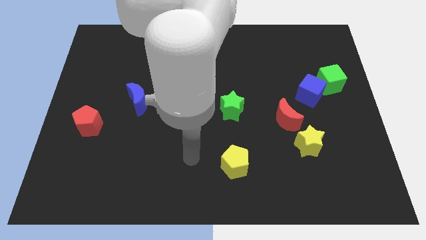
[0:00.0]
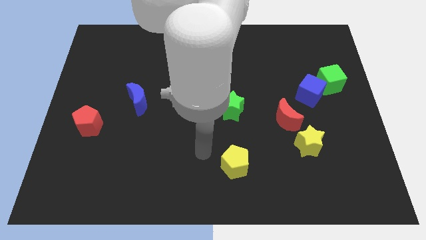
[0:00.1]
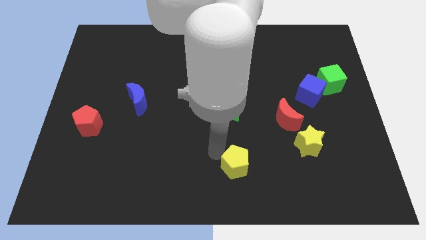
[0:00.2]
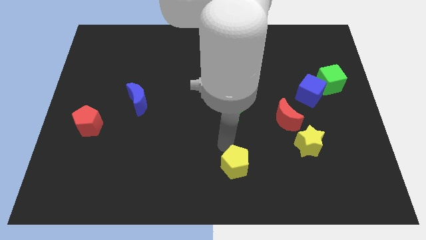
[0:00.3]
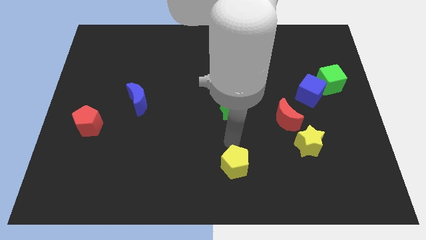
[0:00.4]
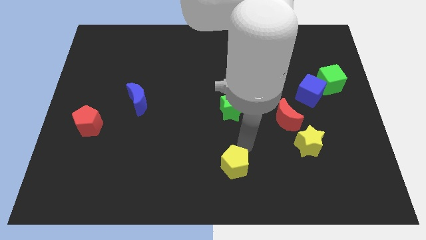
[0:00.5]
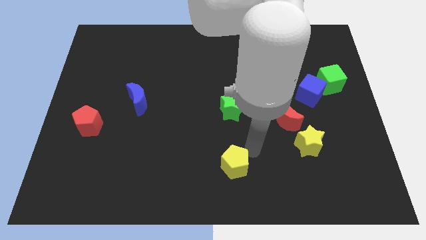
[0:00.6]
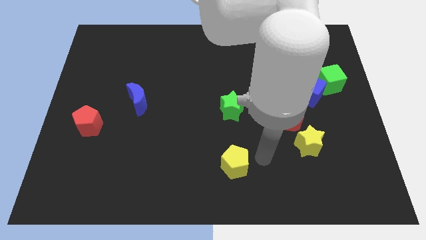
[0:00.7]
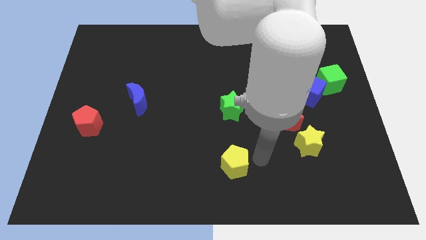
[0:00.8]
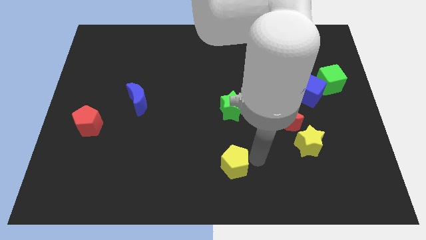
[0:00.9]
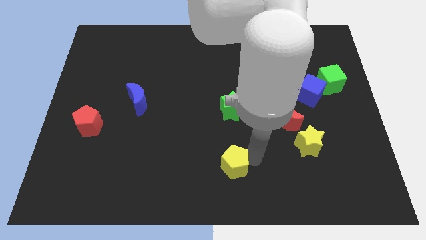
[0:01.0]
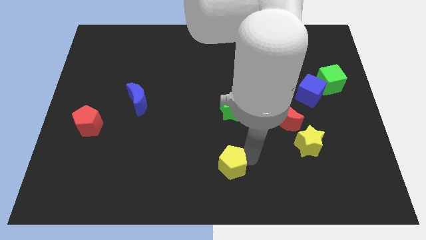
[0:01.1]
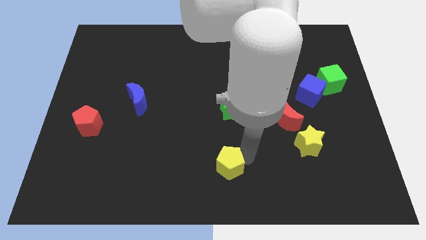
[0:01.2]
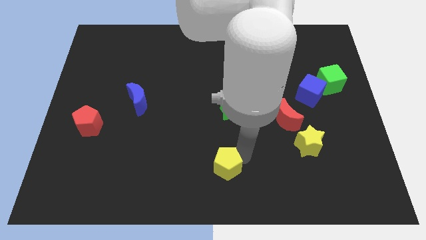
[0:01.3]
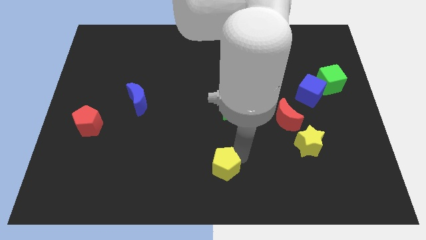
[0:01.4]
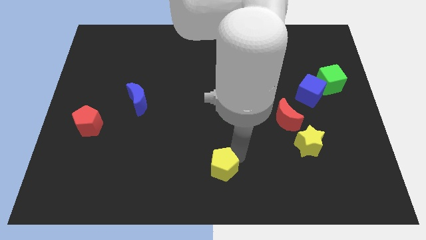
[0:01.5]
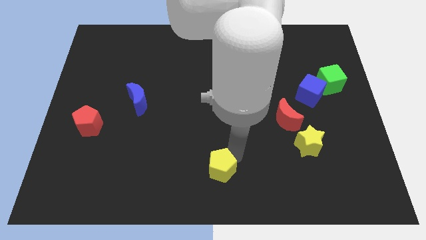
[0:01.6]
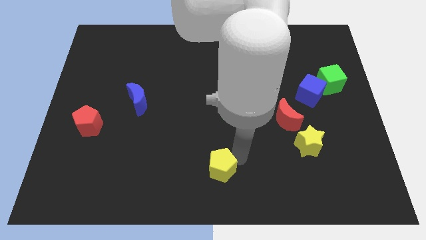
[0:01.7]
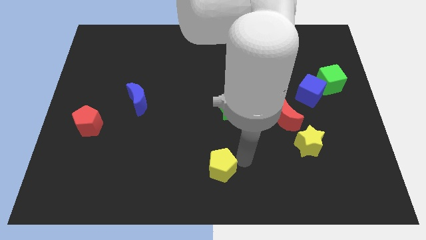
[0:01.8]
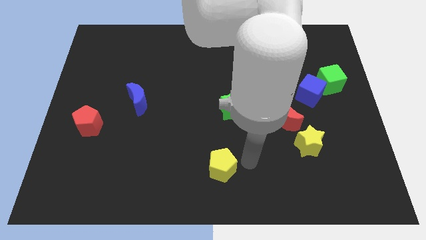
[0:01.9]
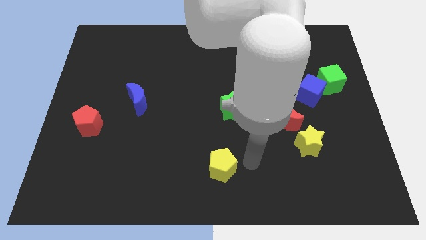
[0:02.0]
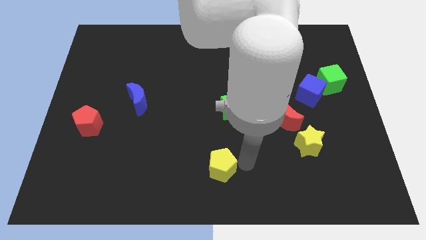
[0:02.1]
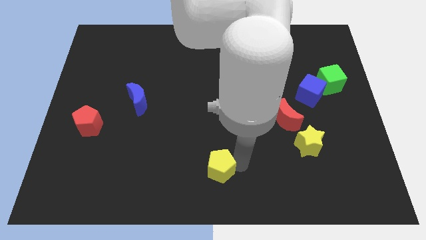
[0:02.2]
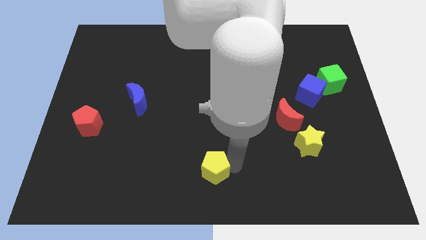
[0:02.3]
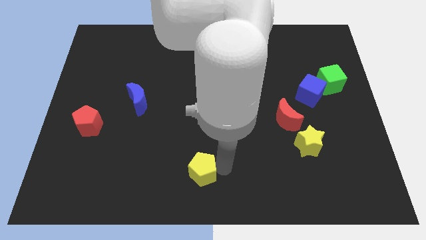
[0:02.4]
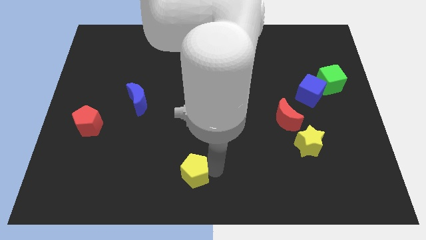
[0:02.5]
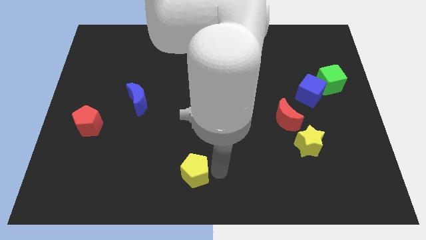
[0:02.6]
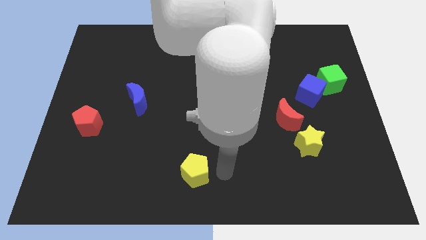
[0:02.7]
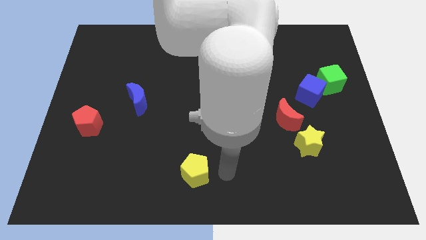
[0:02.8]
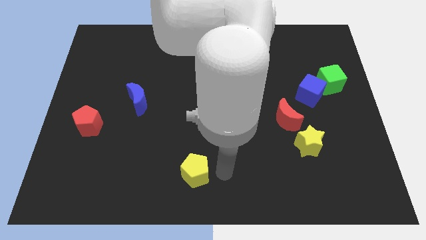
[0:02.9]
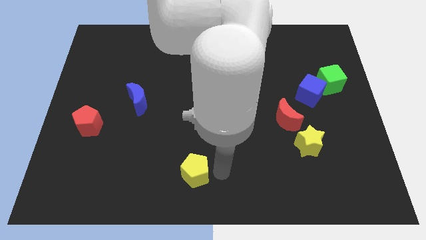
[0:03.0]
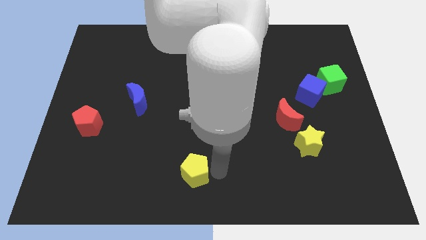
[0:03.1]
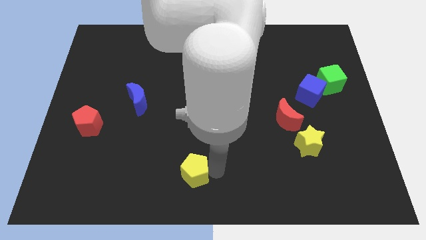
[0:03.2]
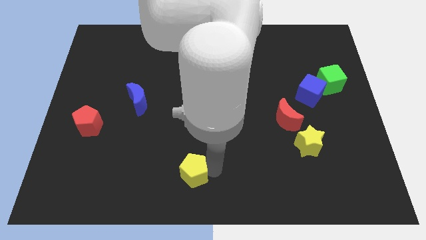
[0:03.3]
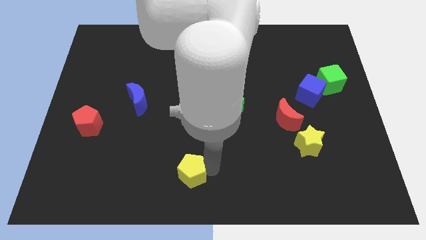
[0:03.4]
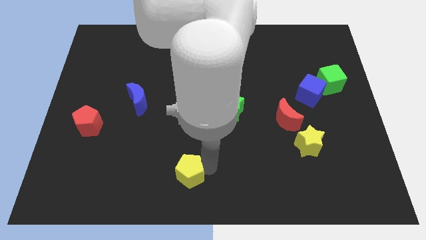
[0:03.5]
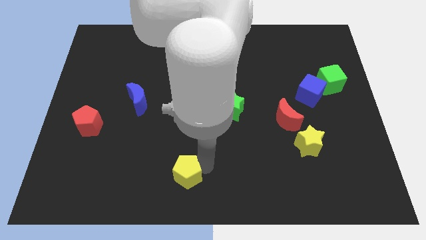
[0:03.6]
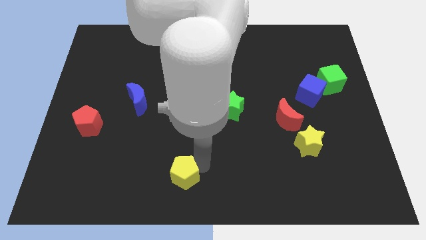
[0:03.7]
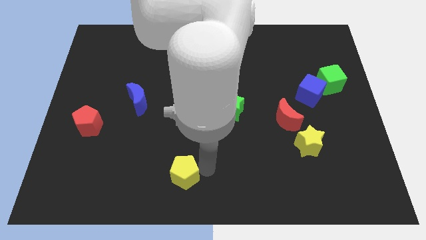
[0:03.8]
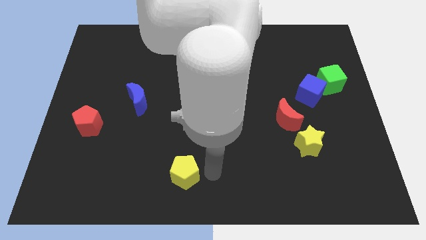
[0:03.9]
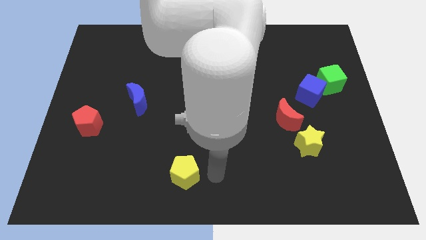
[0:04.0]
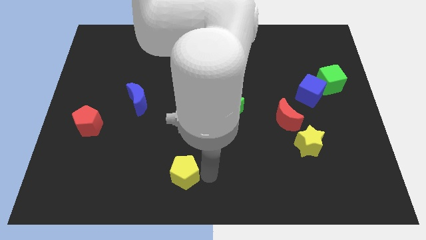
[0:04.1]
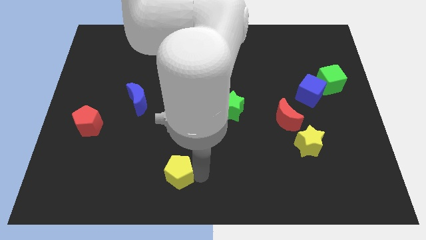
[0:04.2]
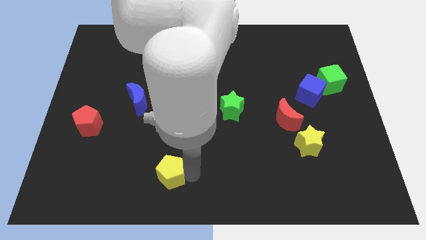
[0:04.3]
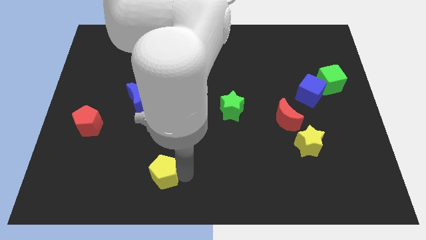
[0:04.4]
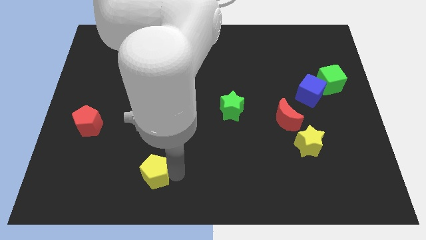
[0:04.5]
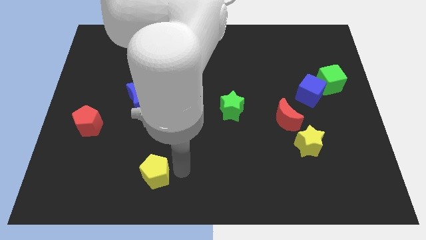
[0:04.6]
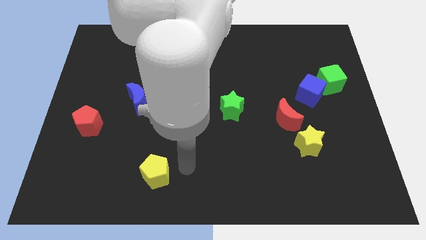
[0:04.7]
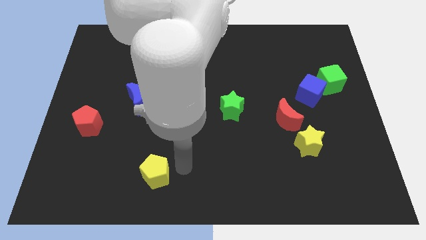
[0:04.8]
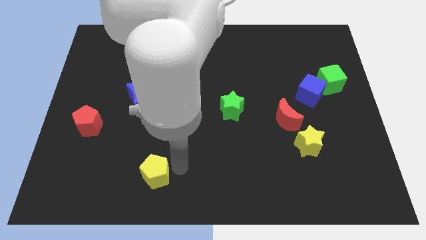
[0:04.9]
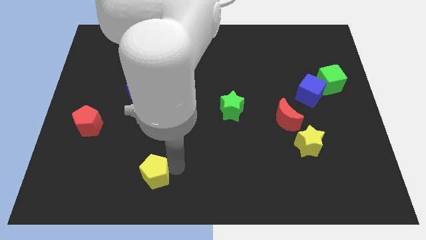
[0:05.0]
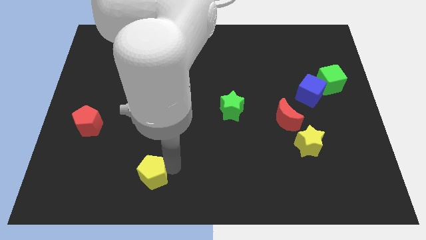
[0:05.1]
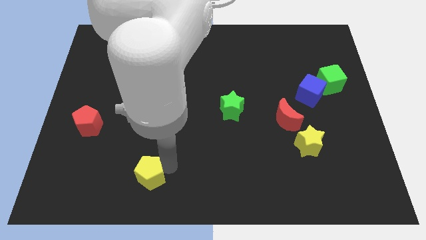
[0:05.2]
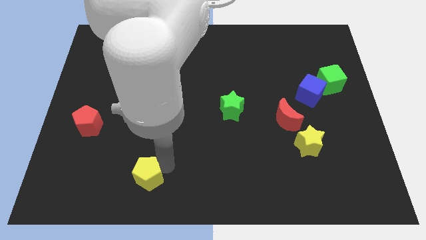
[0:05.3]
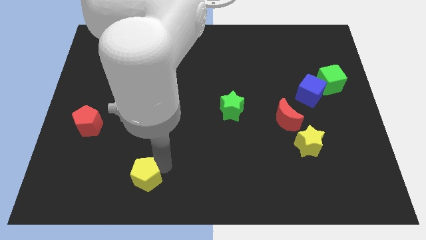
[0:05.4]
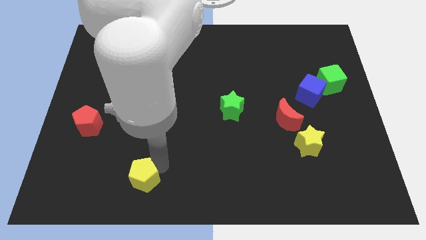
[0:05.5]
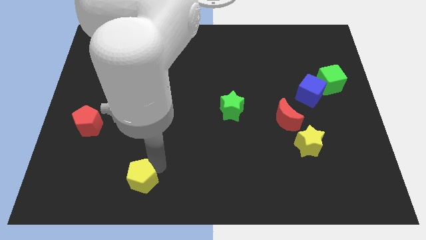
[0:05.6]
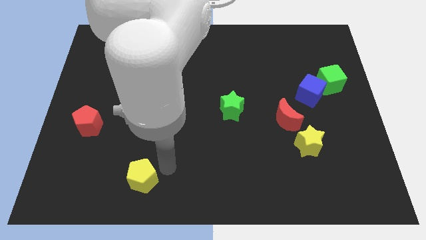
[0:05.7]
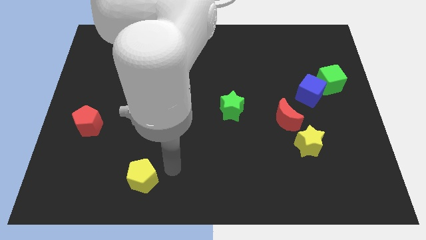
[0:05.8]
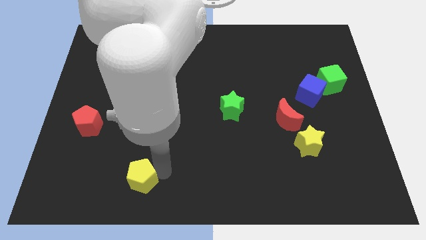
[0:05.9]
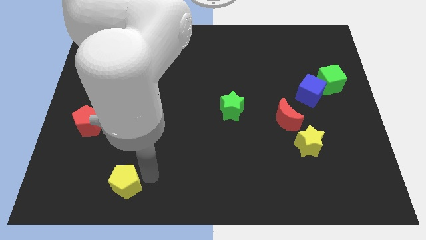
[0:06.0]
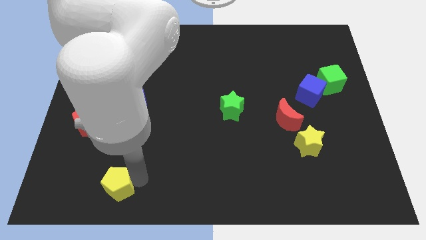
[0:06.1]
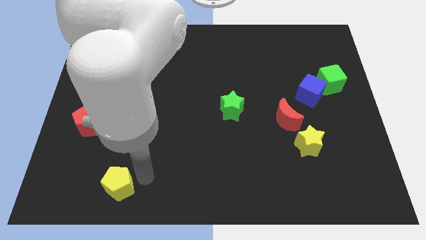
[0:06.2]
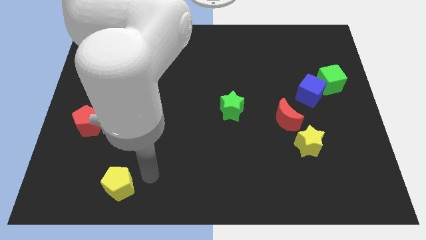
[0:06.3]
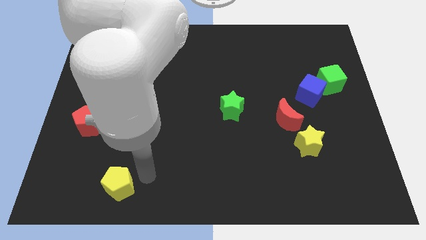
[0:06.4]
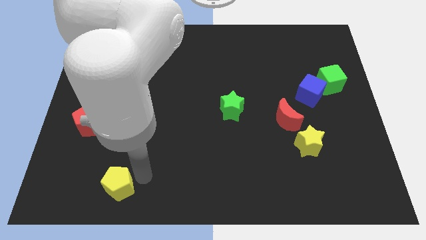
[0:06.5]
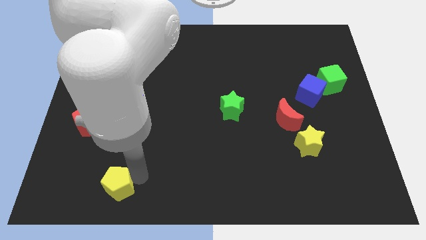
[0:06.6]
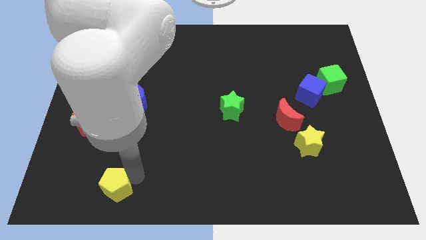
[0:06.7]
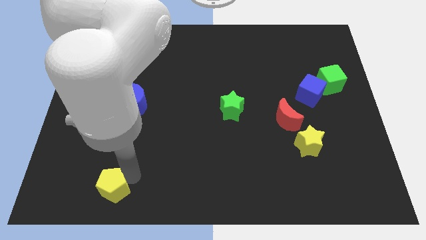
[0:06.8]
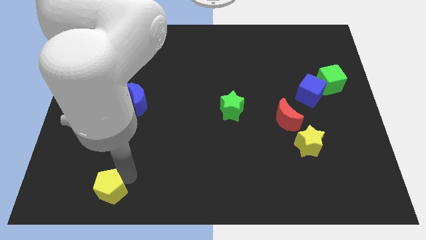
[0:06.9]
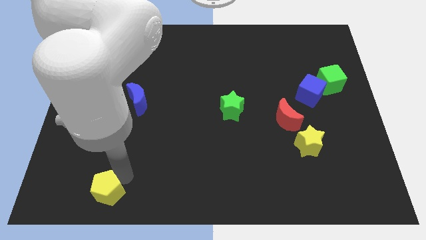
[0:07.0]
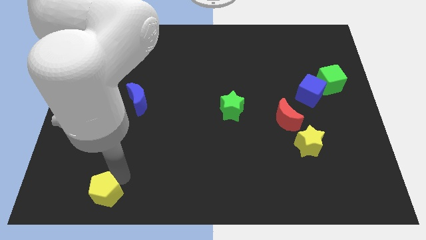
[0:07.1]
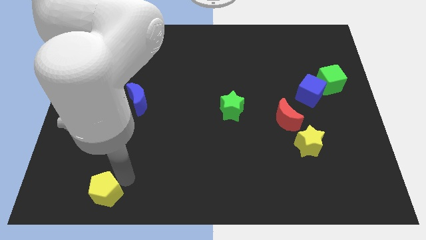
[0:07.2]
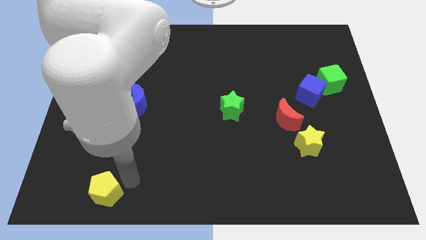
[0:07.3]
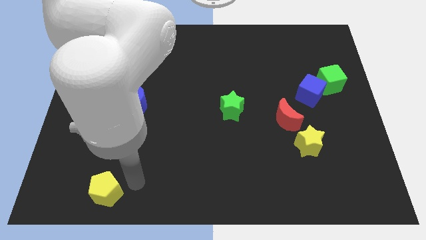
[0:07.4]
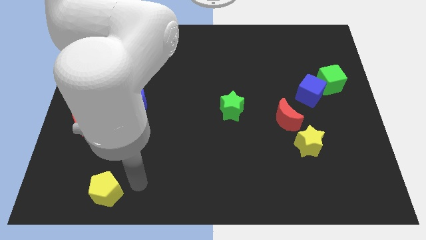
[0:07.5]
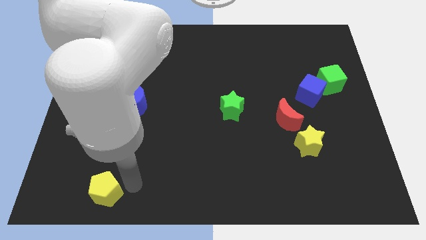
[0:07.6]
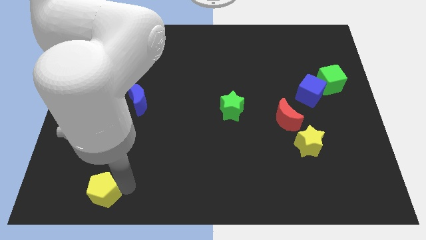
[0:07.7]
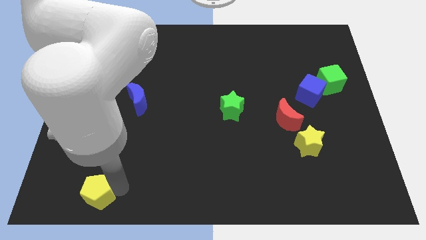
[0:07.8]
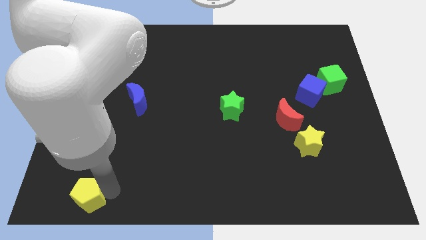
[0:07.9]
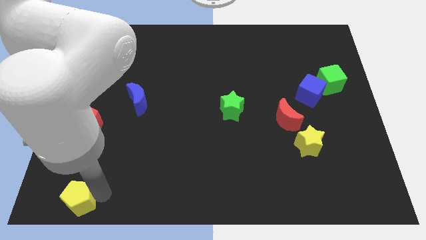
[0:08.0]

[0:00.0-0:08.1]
push the yellow pentagon to the bottom left corner
